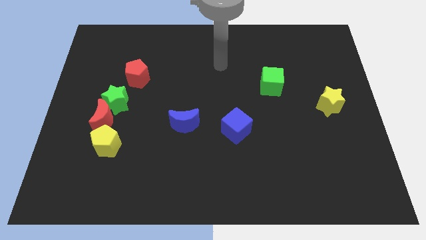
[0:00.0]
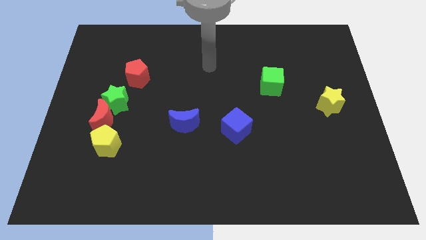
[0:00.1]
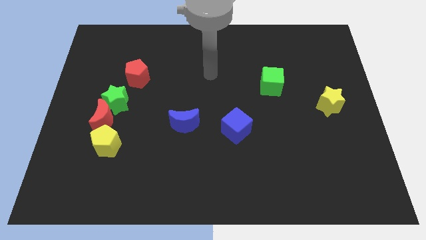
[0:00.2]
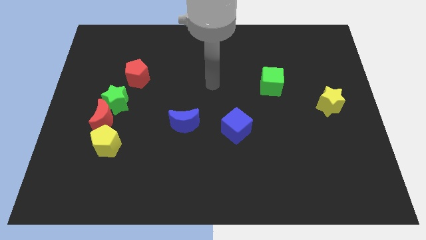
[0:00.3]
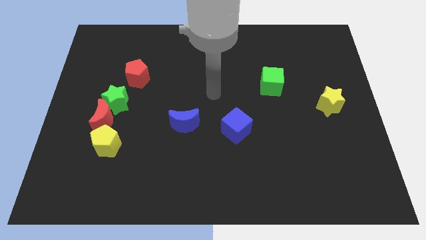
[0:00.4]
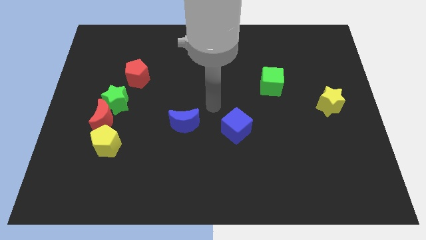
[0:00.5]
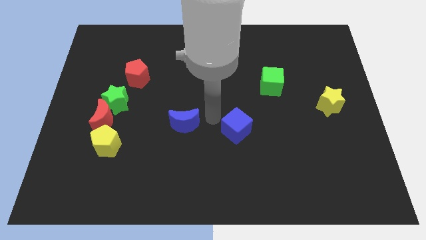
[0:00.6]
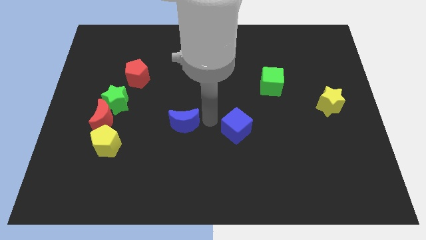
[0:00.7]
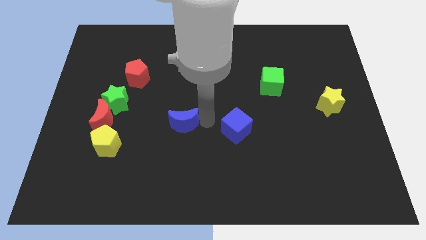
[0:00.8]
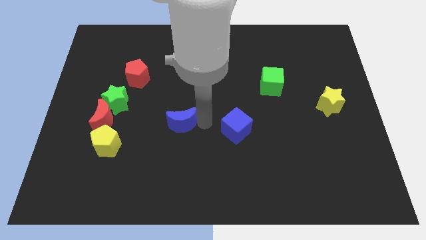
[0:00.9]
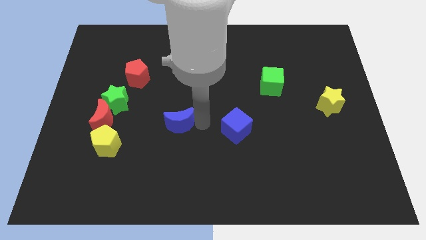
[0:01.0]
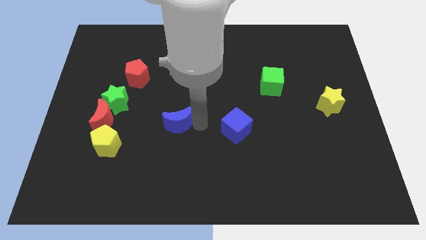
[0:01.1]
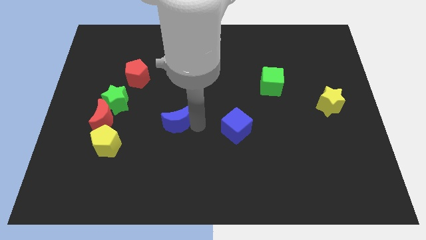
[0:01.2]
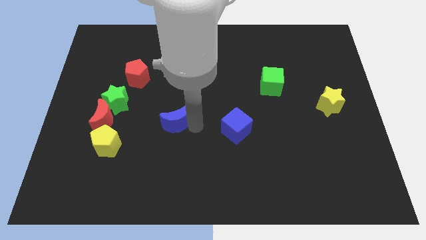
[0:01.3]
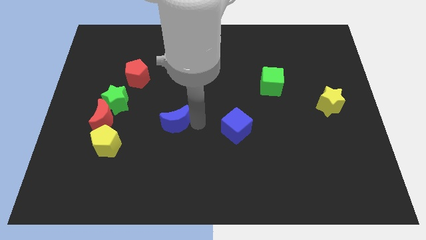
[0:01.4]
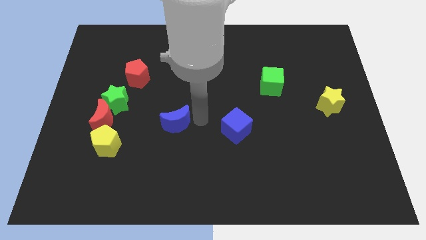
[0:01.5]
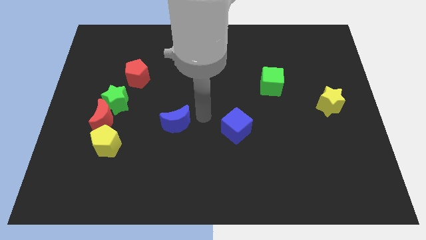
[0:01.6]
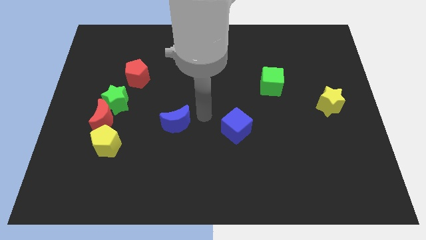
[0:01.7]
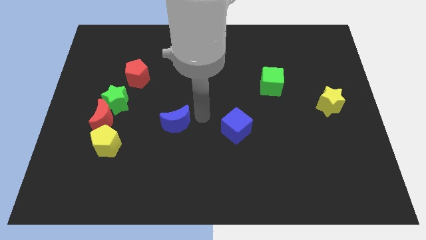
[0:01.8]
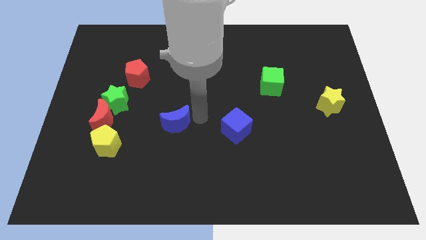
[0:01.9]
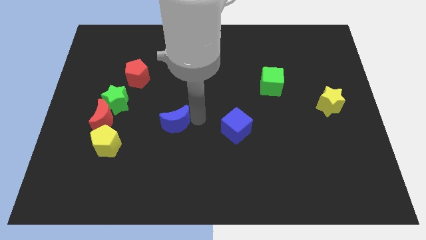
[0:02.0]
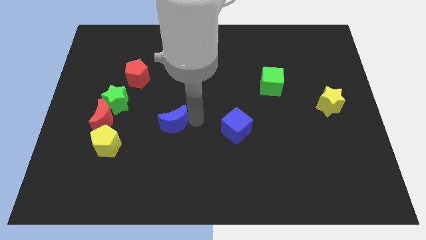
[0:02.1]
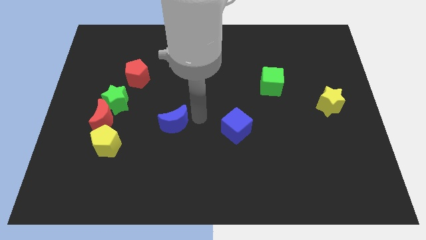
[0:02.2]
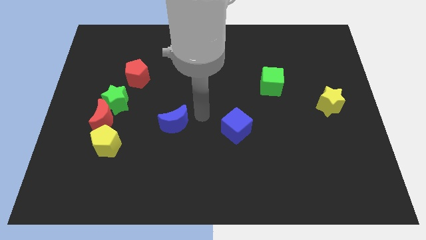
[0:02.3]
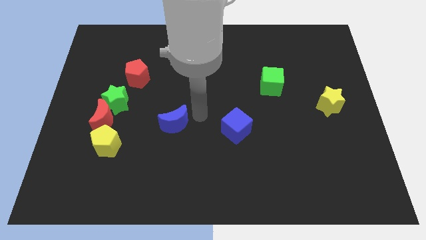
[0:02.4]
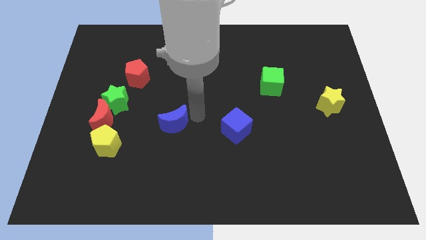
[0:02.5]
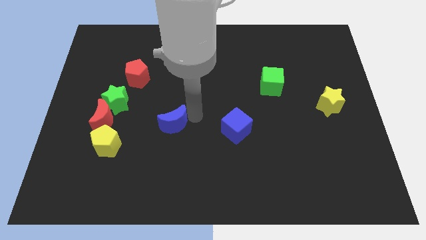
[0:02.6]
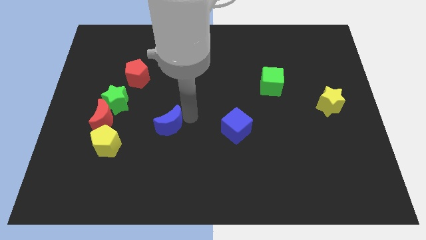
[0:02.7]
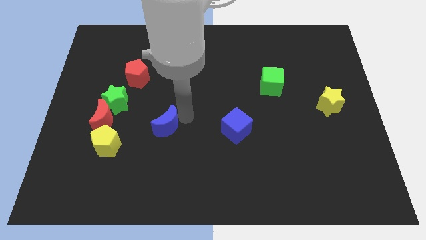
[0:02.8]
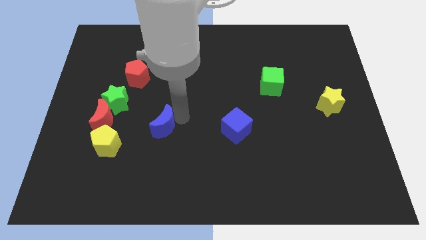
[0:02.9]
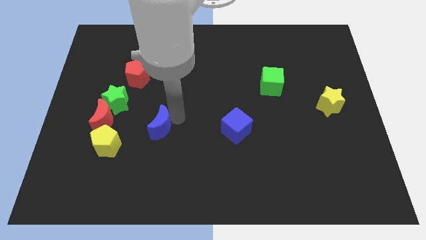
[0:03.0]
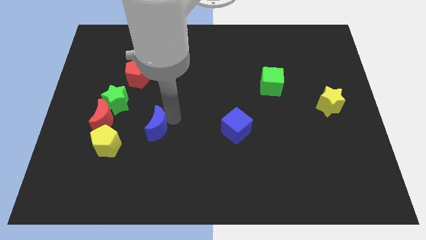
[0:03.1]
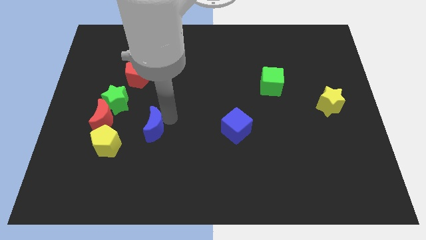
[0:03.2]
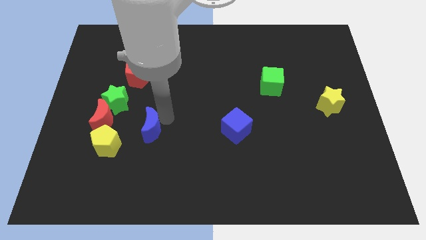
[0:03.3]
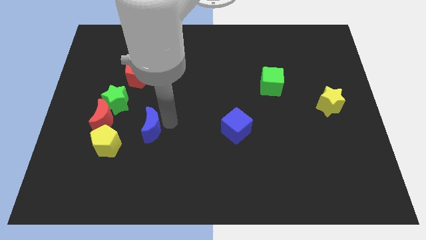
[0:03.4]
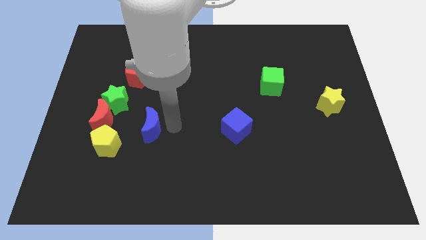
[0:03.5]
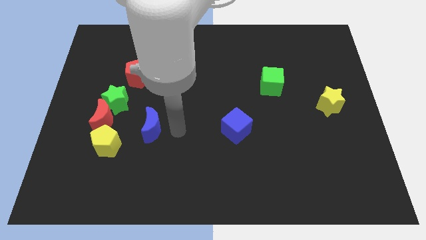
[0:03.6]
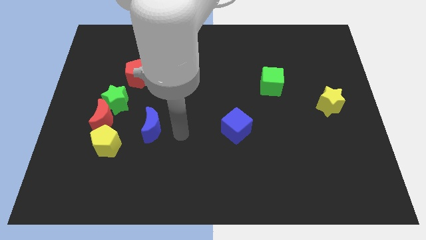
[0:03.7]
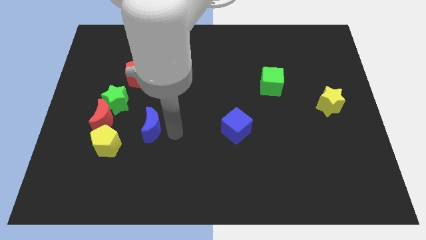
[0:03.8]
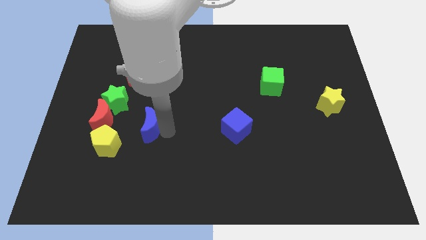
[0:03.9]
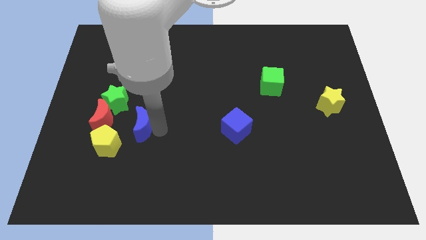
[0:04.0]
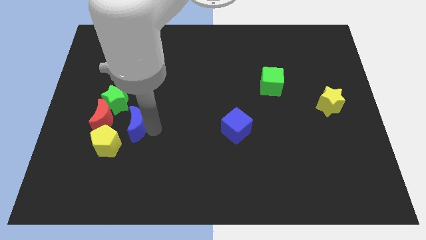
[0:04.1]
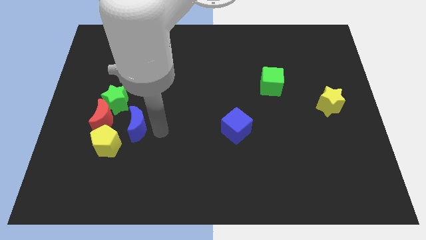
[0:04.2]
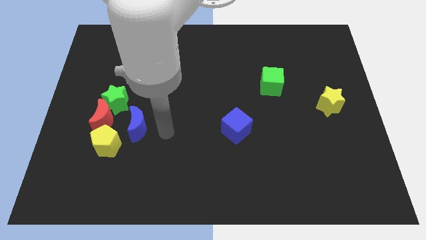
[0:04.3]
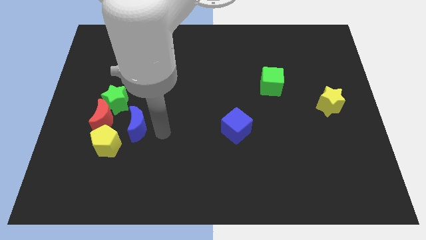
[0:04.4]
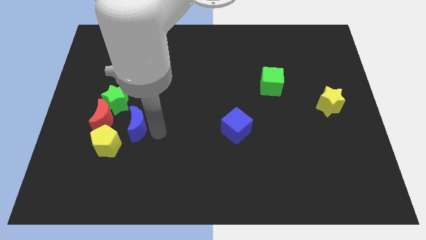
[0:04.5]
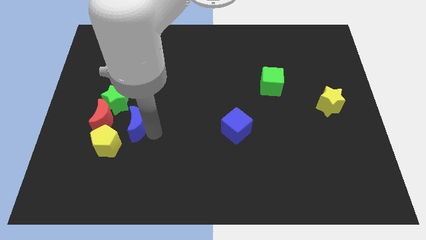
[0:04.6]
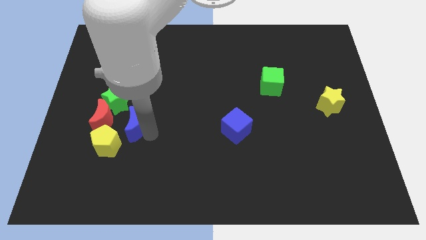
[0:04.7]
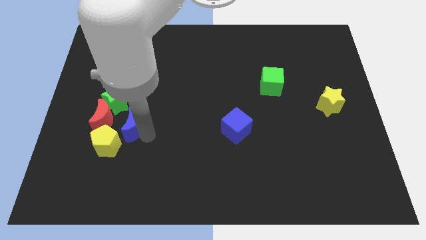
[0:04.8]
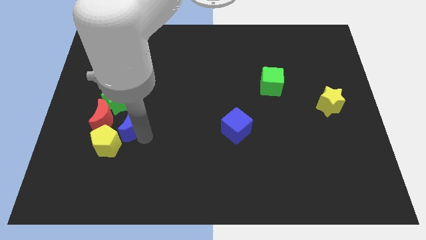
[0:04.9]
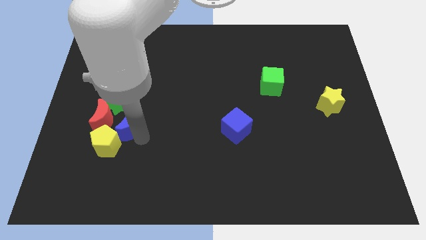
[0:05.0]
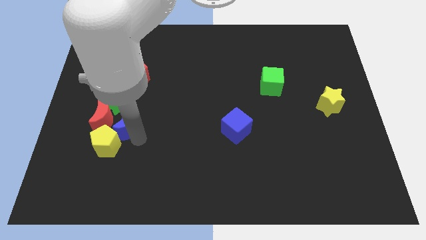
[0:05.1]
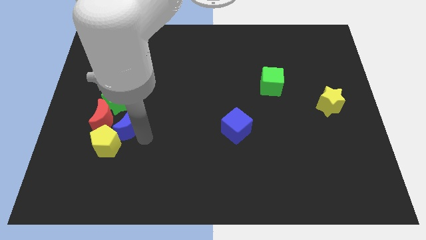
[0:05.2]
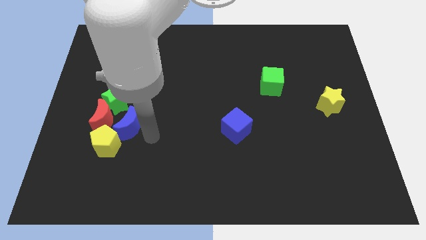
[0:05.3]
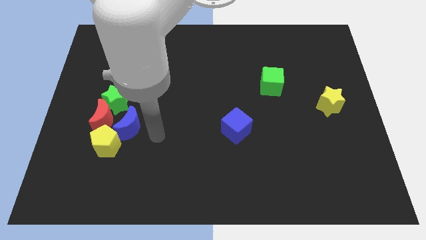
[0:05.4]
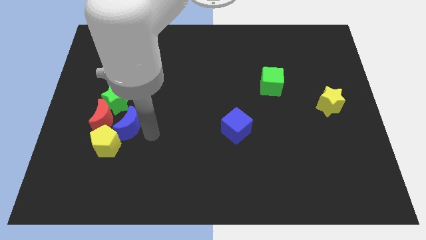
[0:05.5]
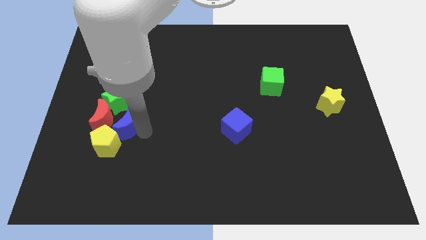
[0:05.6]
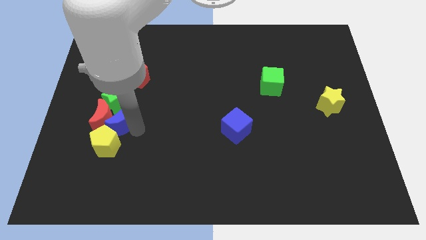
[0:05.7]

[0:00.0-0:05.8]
put the blue moon next to the red moon

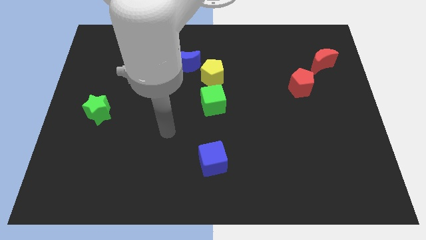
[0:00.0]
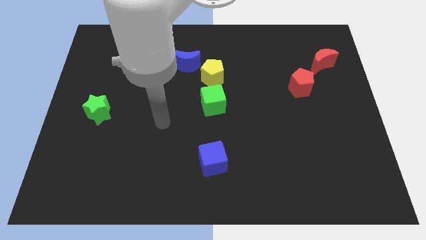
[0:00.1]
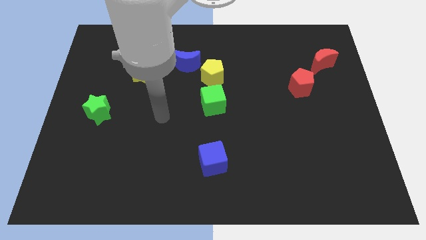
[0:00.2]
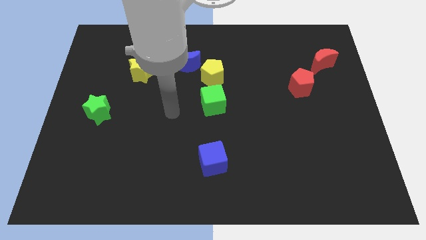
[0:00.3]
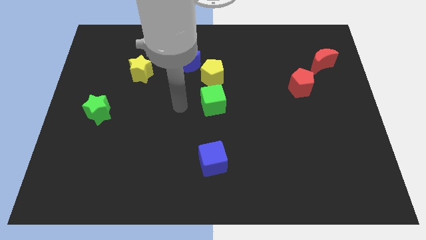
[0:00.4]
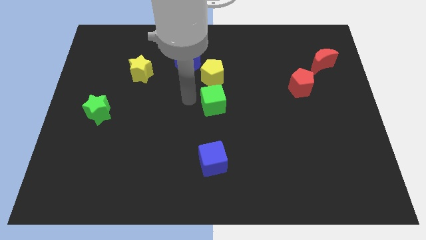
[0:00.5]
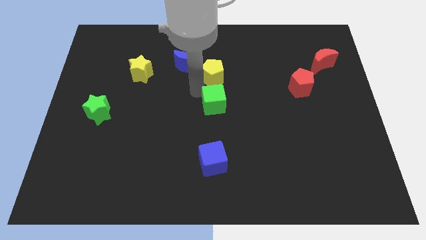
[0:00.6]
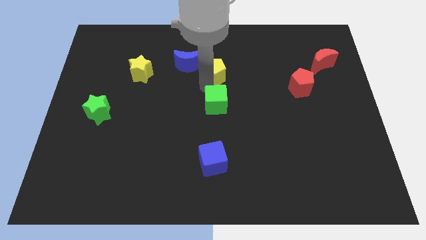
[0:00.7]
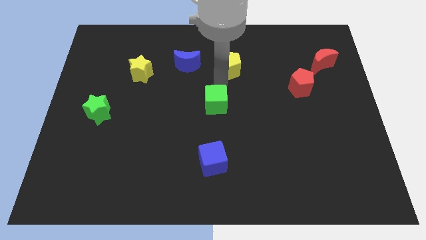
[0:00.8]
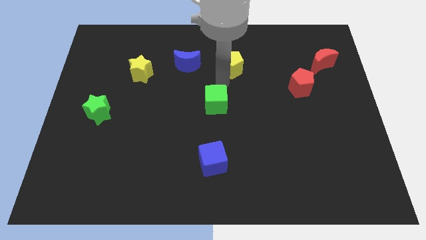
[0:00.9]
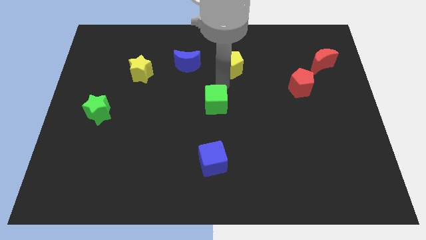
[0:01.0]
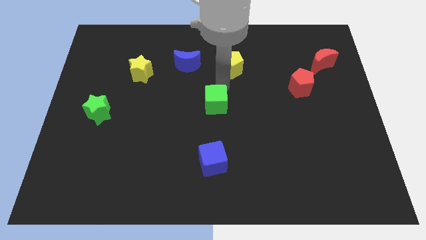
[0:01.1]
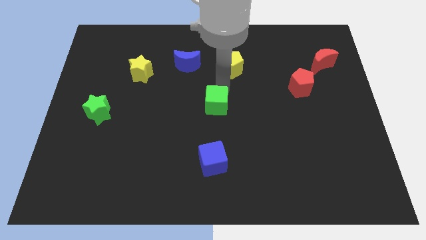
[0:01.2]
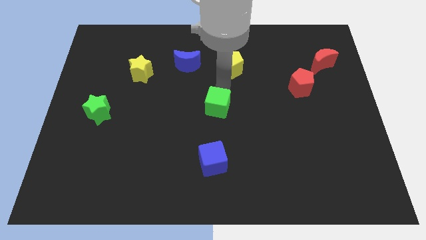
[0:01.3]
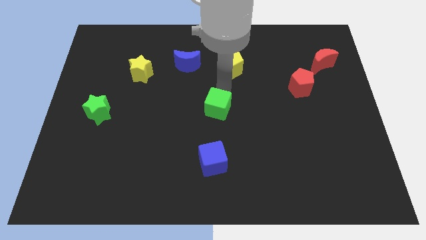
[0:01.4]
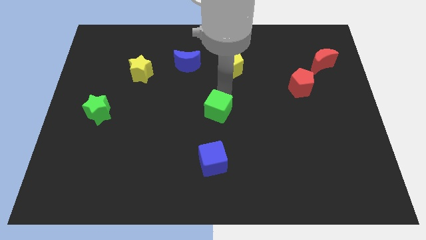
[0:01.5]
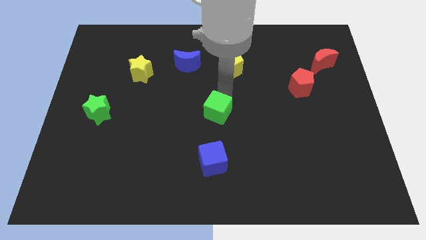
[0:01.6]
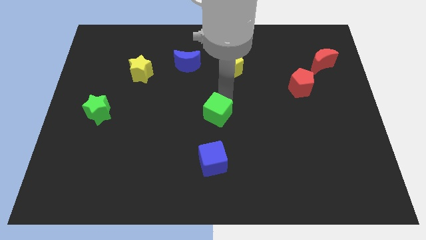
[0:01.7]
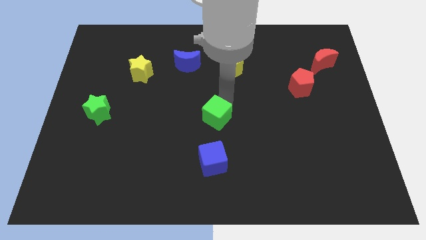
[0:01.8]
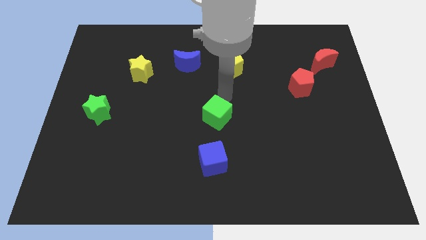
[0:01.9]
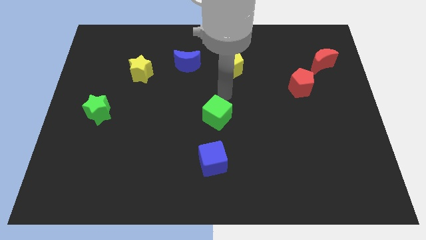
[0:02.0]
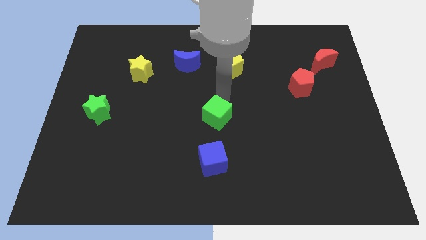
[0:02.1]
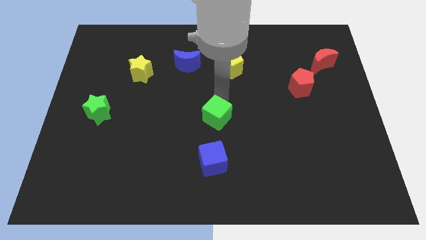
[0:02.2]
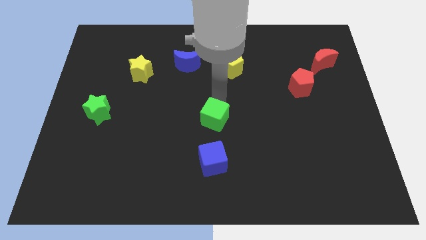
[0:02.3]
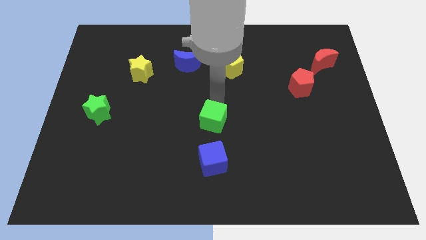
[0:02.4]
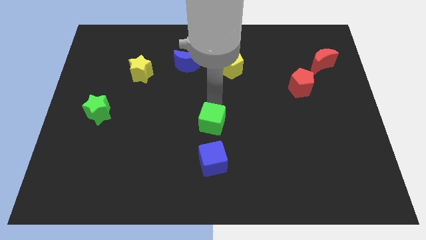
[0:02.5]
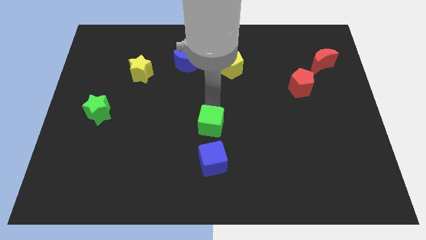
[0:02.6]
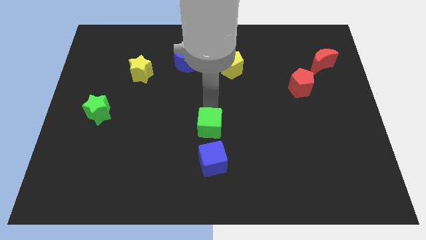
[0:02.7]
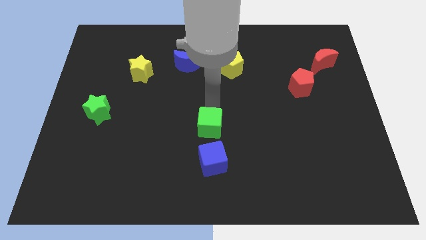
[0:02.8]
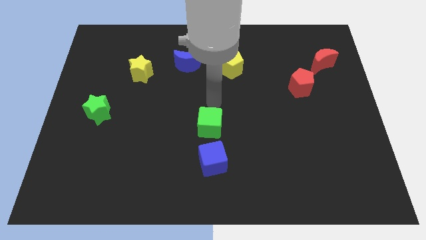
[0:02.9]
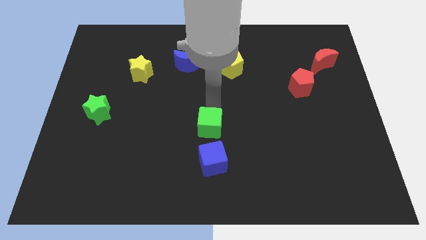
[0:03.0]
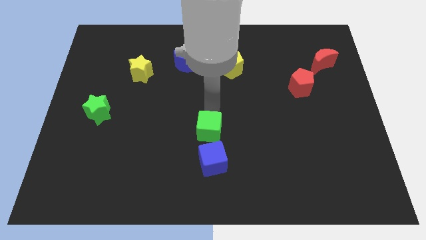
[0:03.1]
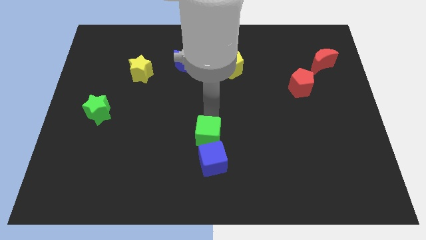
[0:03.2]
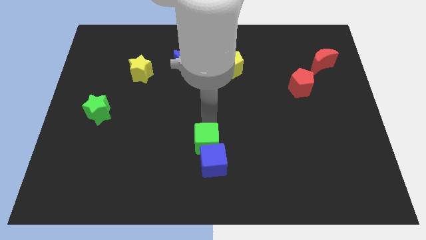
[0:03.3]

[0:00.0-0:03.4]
push the green cube next to the blue cube
